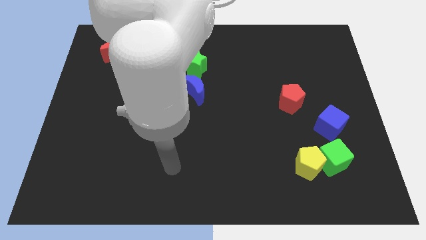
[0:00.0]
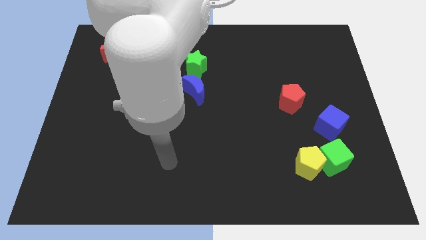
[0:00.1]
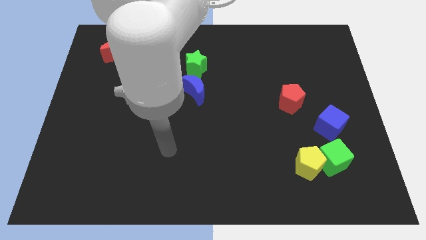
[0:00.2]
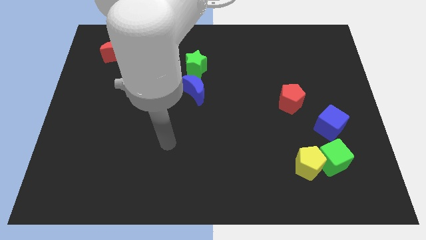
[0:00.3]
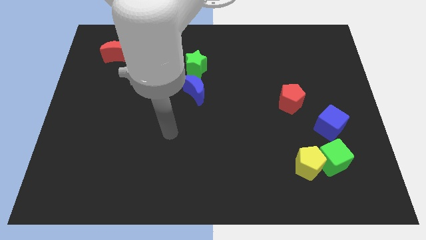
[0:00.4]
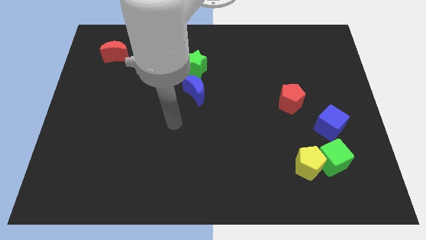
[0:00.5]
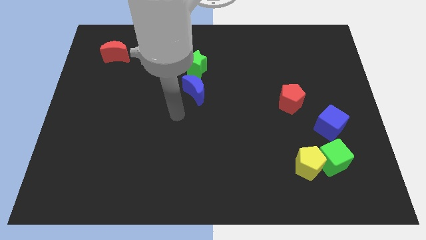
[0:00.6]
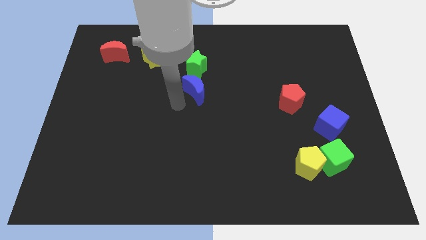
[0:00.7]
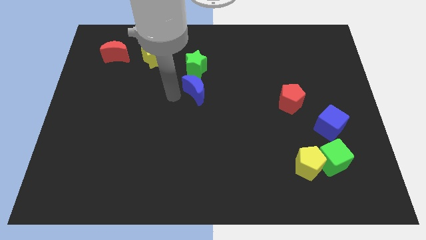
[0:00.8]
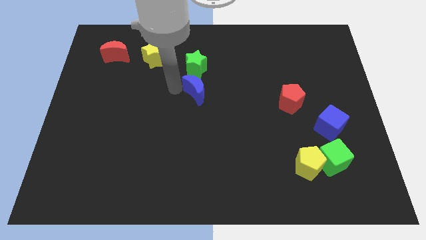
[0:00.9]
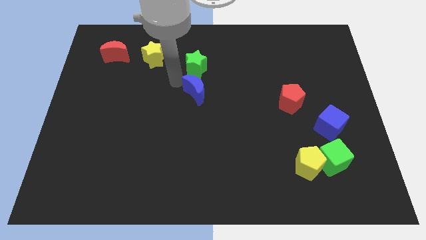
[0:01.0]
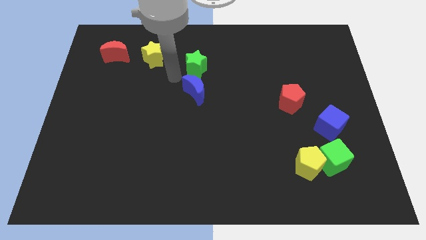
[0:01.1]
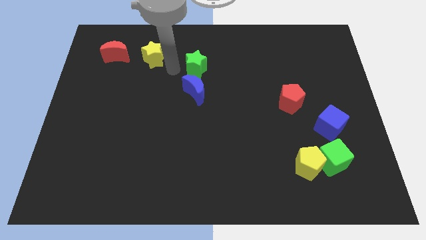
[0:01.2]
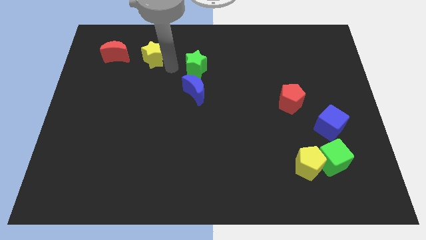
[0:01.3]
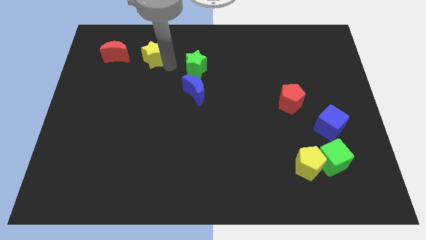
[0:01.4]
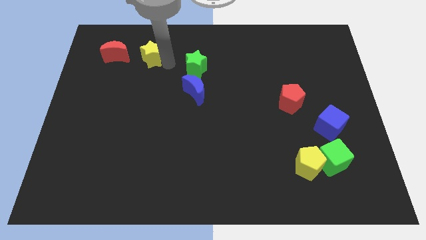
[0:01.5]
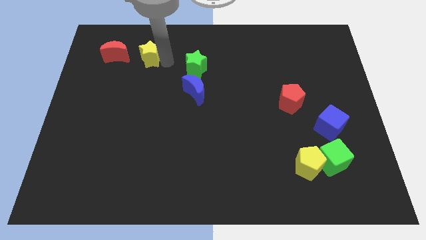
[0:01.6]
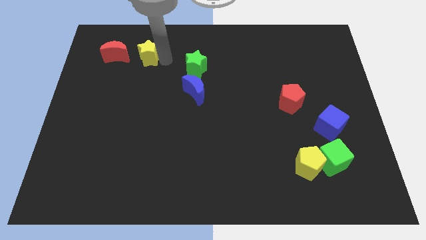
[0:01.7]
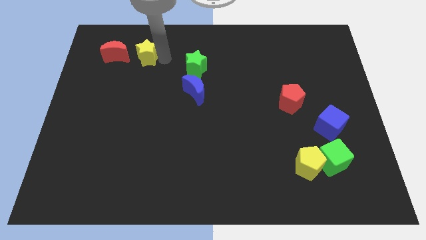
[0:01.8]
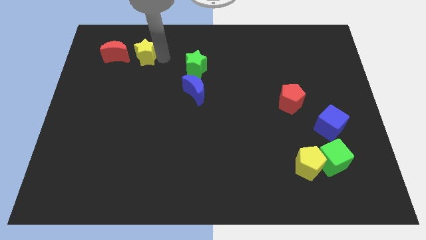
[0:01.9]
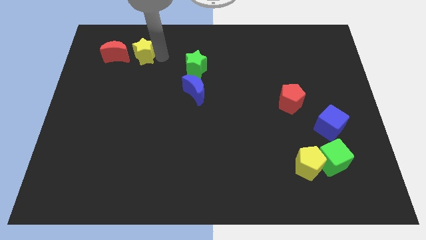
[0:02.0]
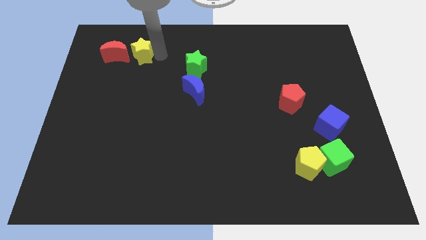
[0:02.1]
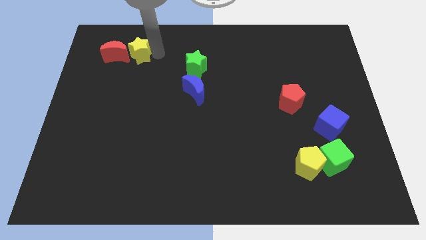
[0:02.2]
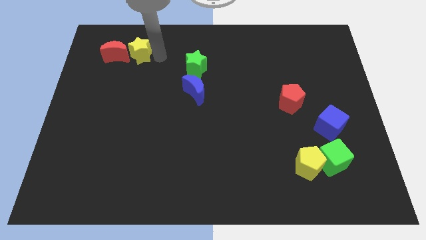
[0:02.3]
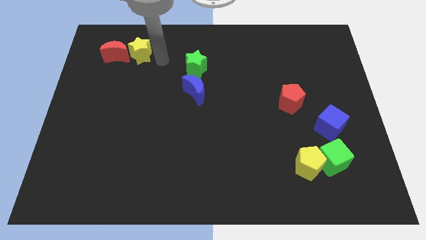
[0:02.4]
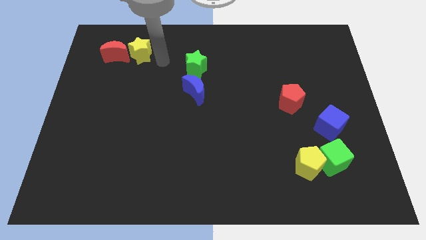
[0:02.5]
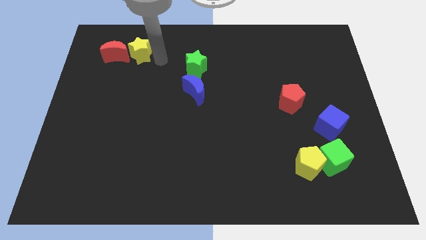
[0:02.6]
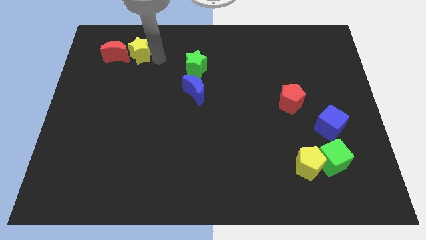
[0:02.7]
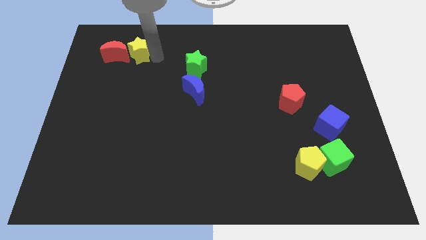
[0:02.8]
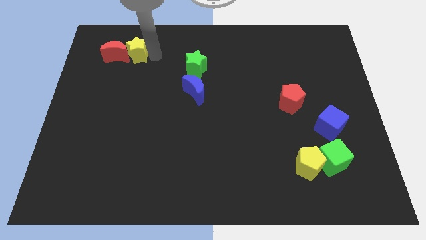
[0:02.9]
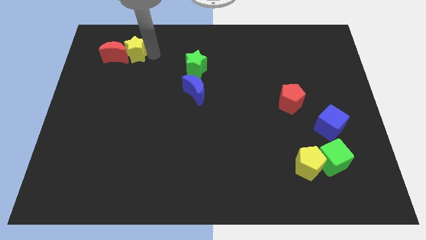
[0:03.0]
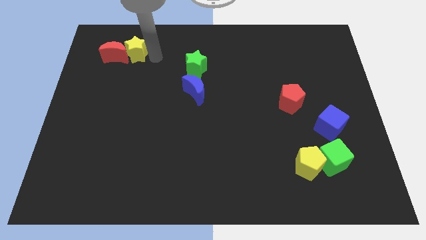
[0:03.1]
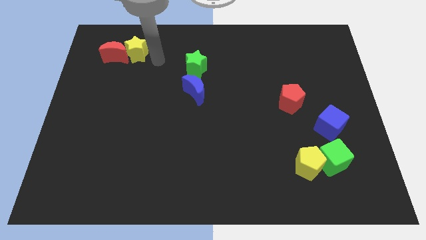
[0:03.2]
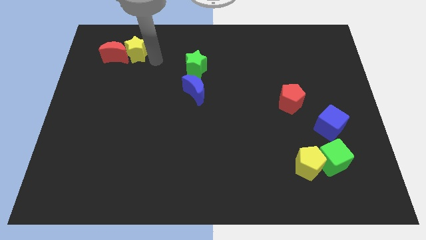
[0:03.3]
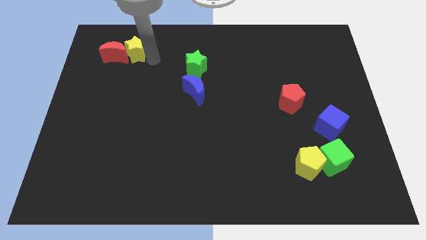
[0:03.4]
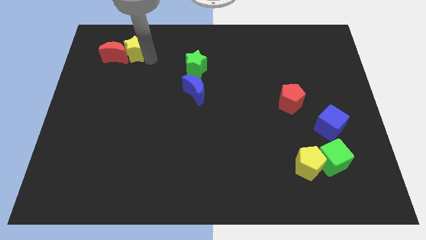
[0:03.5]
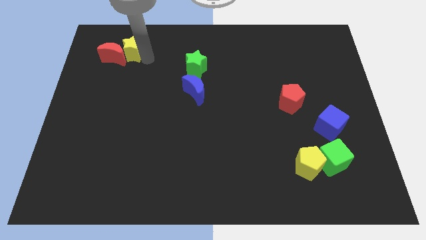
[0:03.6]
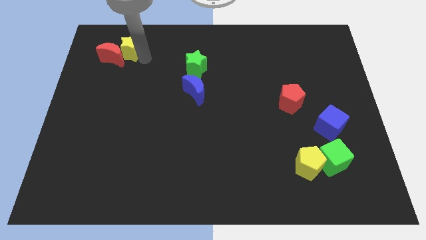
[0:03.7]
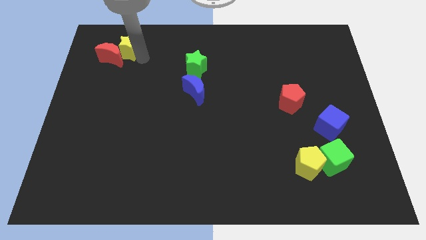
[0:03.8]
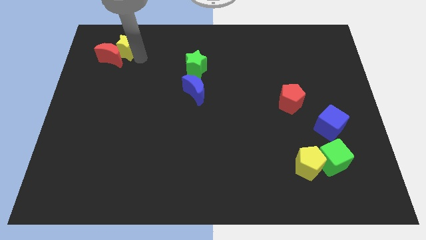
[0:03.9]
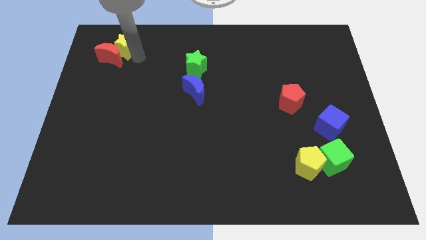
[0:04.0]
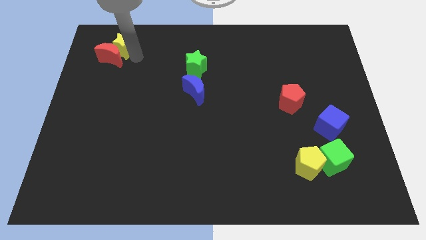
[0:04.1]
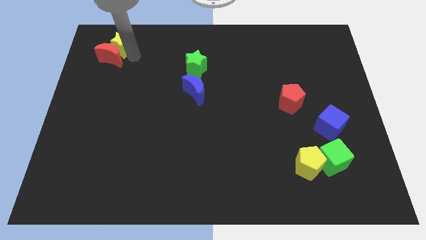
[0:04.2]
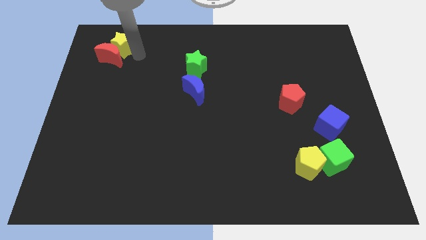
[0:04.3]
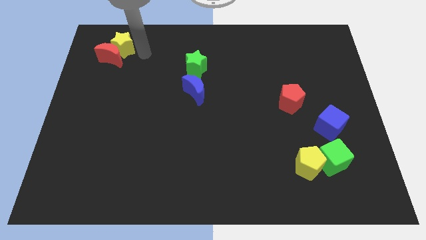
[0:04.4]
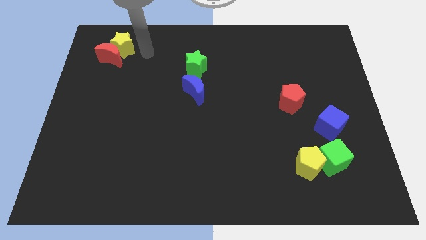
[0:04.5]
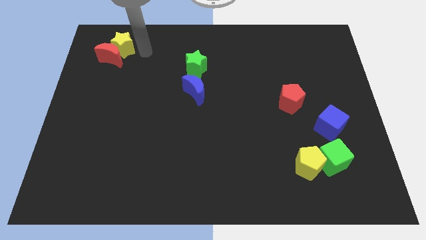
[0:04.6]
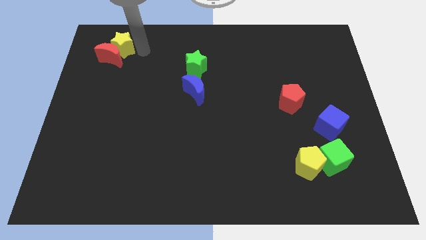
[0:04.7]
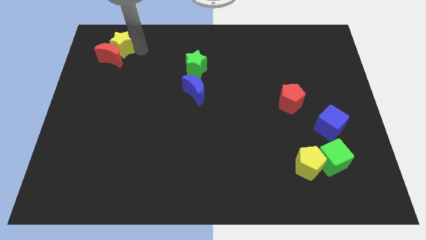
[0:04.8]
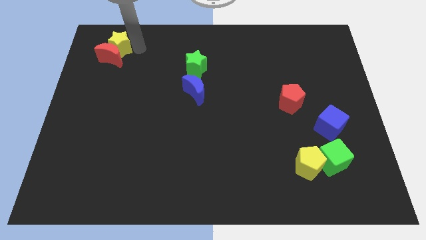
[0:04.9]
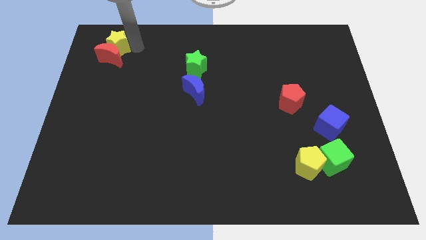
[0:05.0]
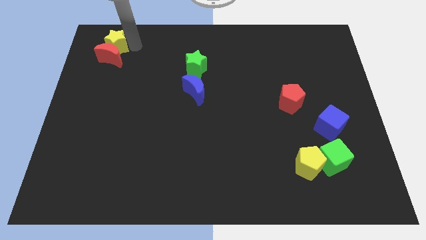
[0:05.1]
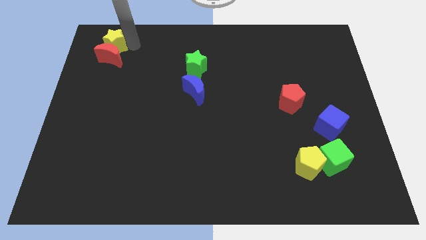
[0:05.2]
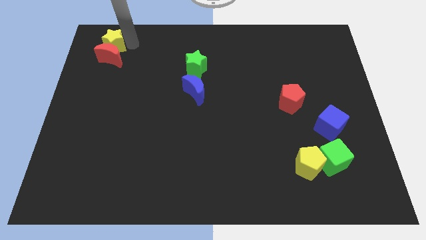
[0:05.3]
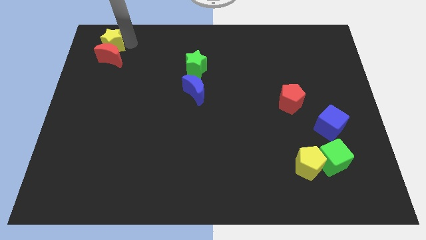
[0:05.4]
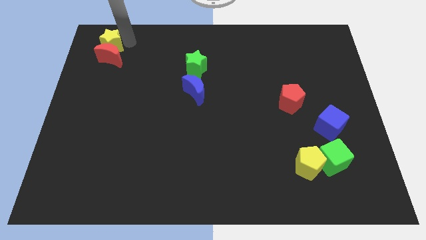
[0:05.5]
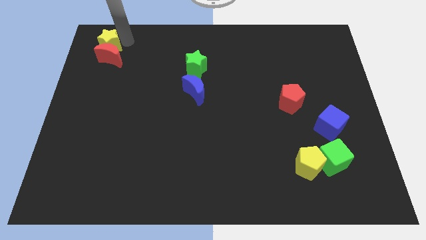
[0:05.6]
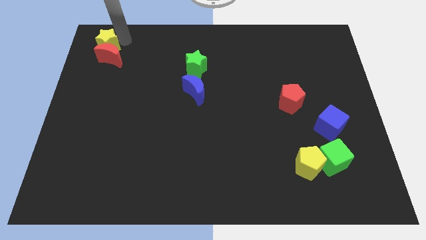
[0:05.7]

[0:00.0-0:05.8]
push the yellow star to the upper left corner

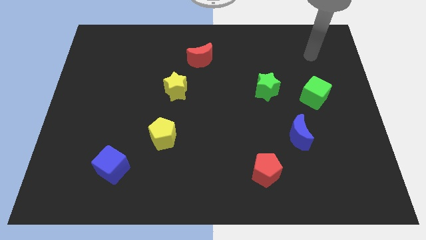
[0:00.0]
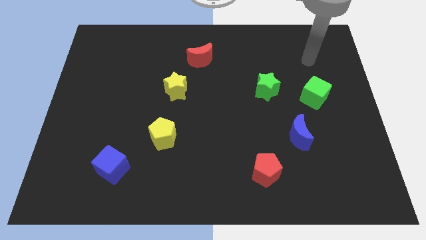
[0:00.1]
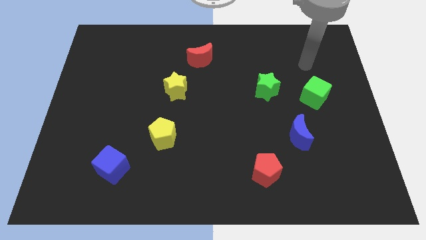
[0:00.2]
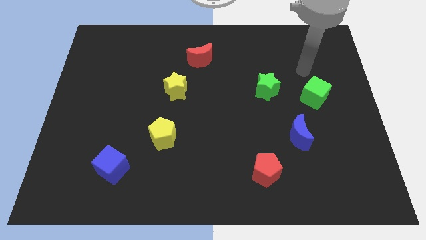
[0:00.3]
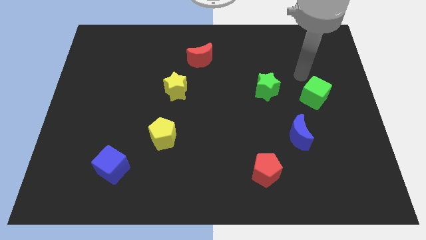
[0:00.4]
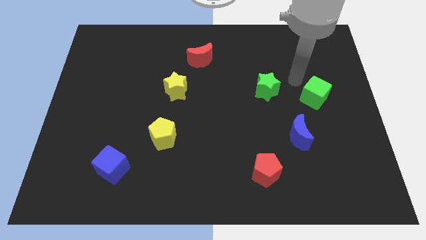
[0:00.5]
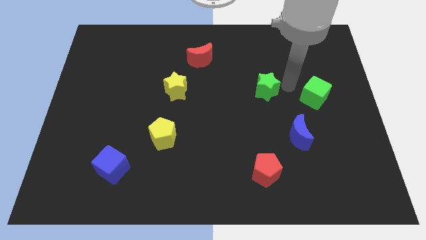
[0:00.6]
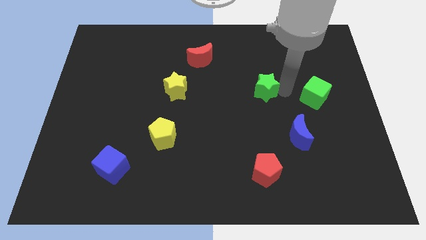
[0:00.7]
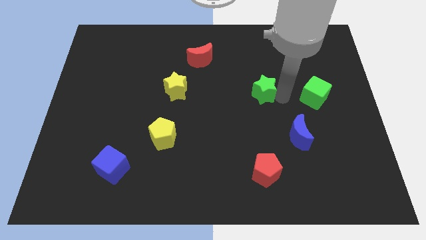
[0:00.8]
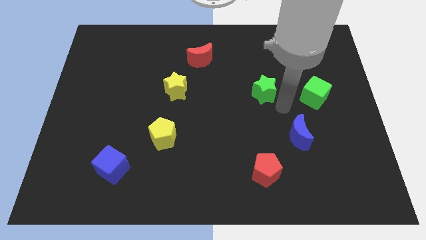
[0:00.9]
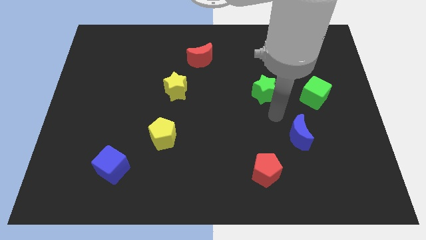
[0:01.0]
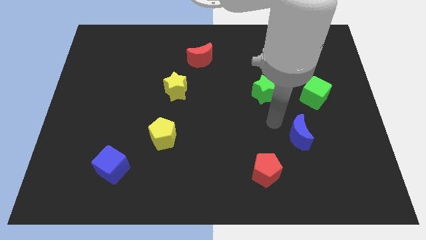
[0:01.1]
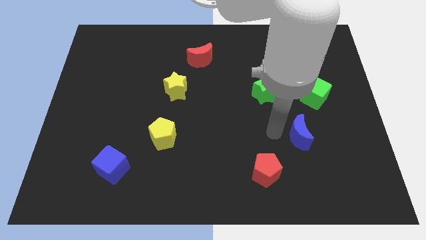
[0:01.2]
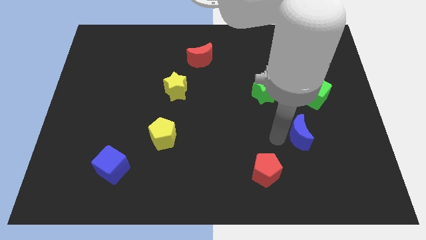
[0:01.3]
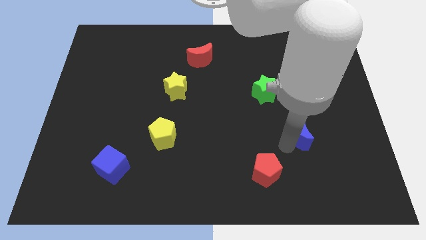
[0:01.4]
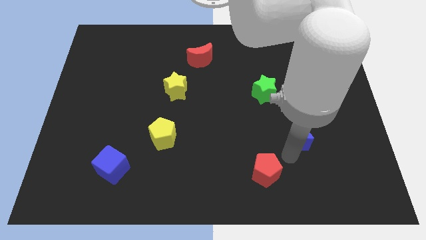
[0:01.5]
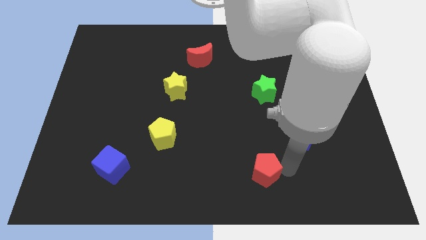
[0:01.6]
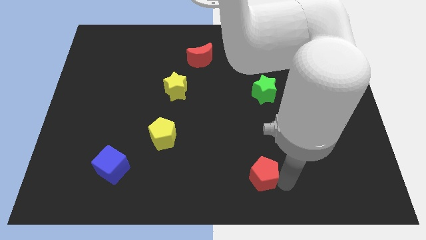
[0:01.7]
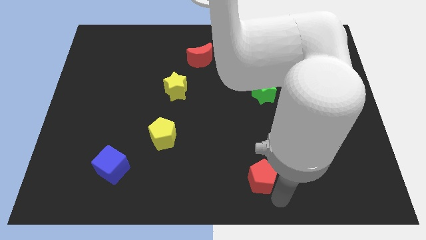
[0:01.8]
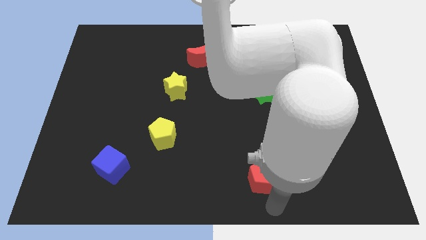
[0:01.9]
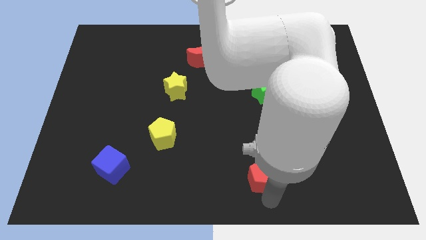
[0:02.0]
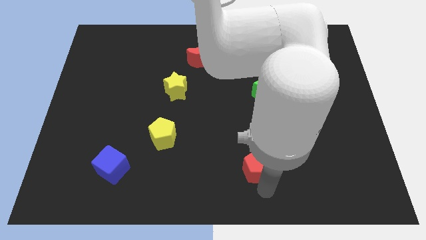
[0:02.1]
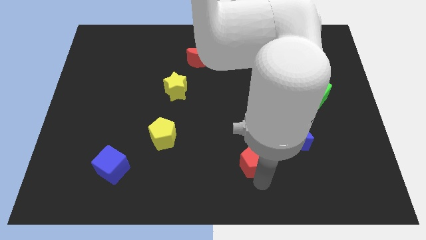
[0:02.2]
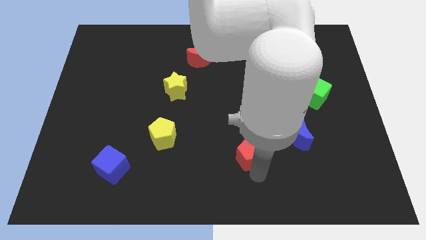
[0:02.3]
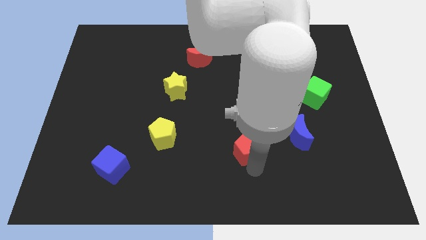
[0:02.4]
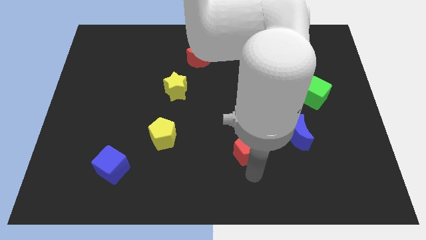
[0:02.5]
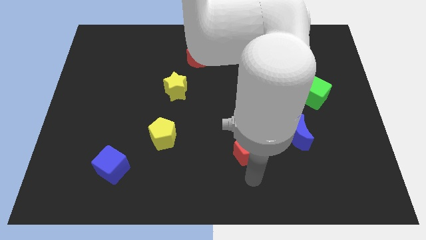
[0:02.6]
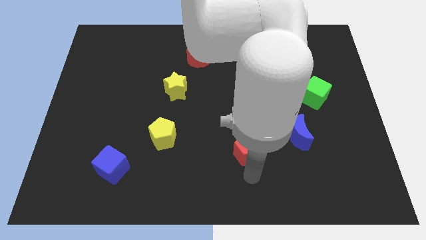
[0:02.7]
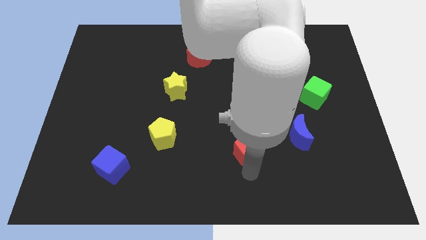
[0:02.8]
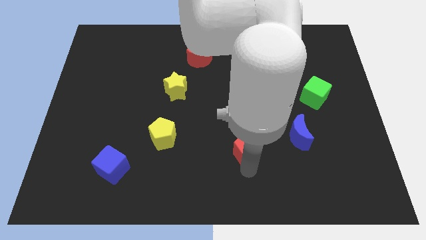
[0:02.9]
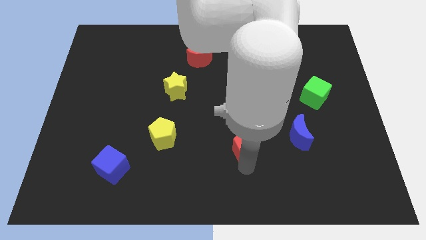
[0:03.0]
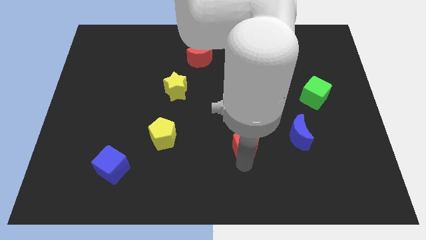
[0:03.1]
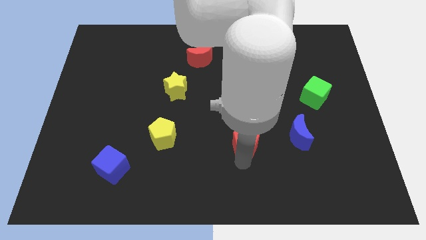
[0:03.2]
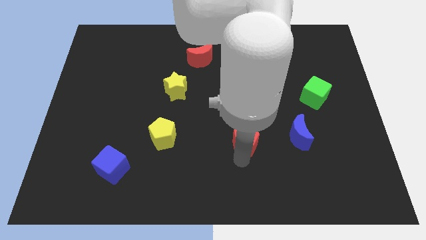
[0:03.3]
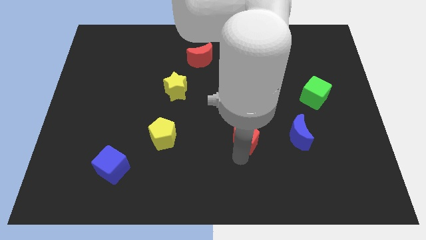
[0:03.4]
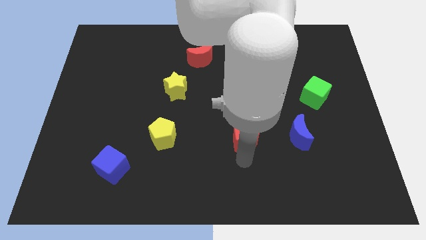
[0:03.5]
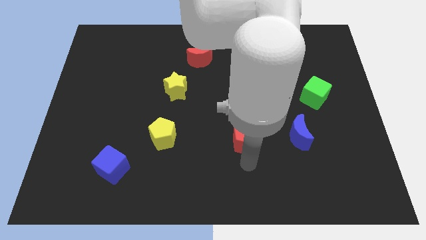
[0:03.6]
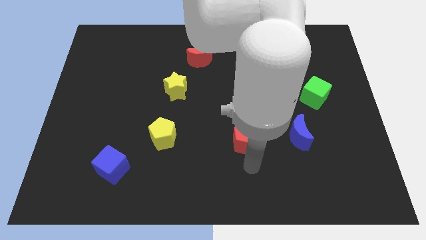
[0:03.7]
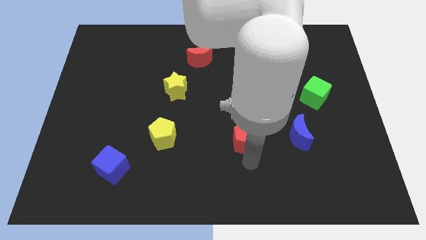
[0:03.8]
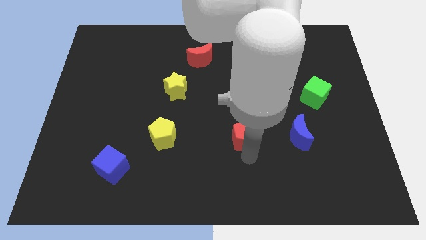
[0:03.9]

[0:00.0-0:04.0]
push the red pentagon to the center of the board
